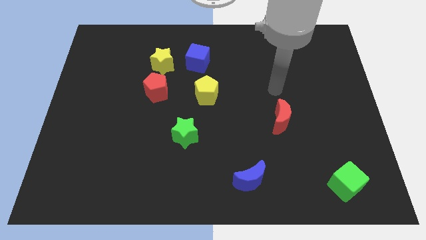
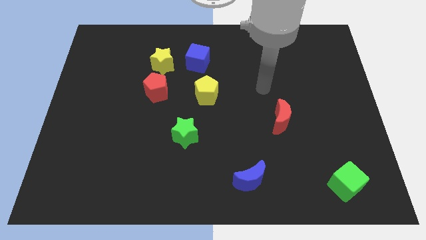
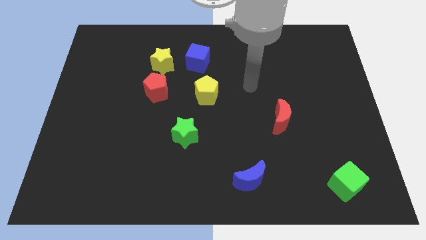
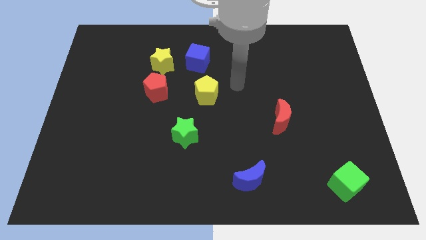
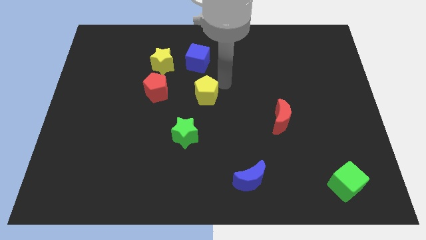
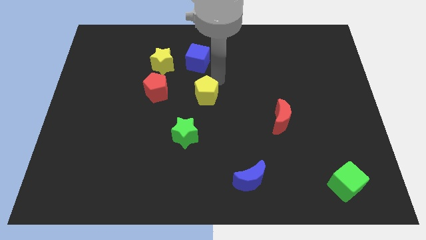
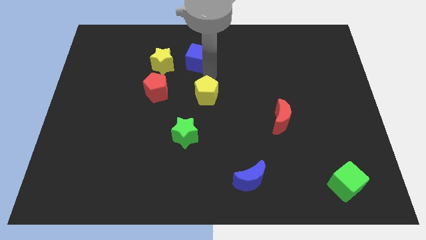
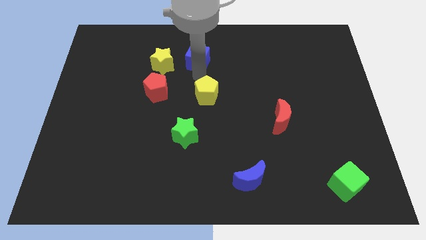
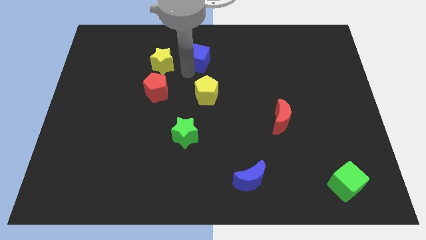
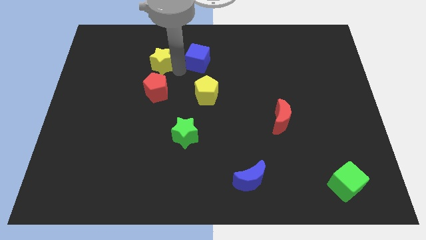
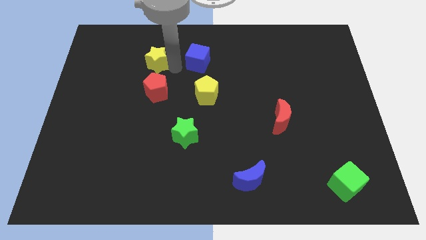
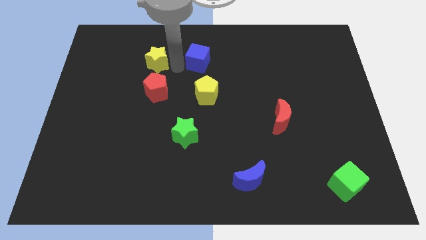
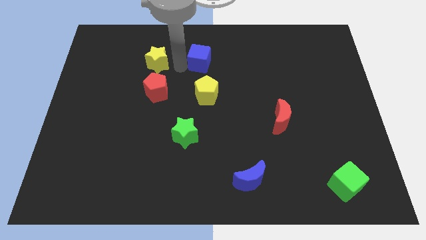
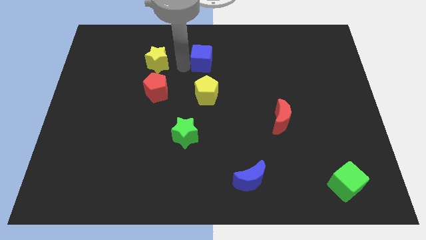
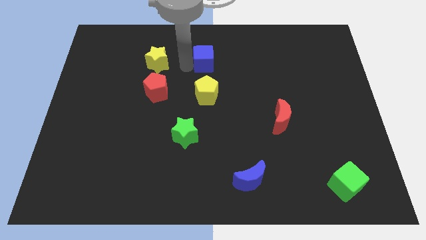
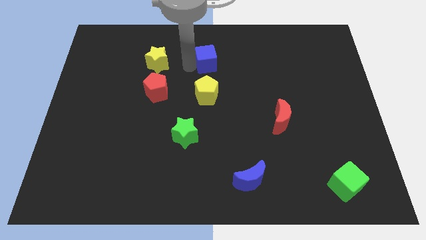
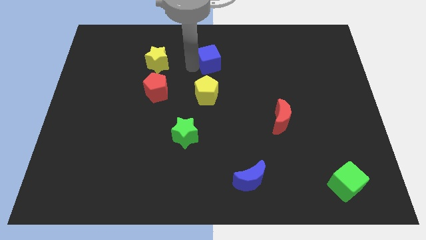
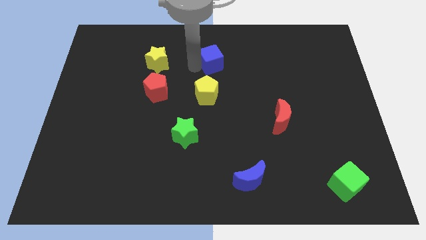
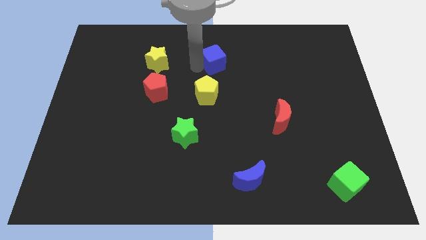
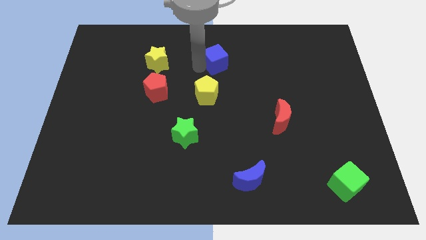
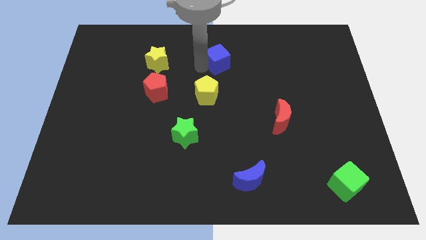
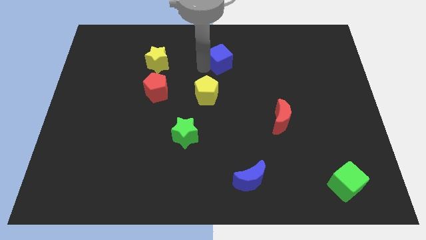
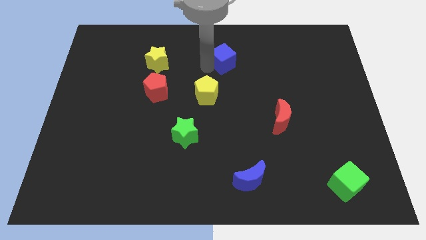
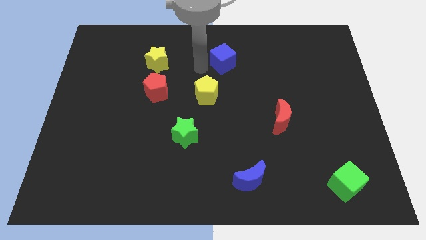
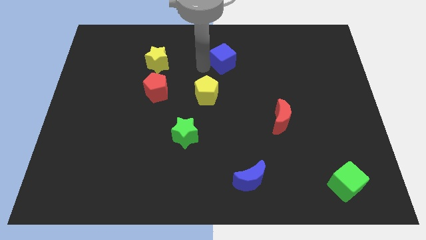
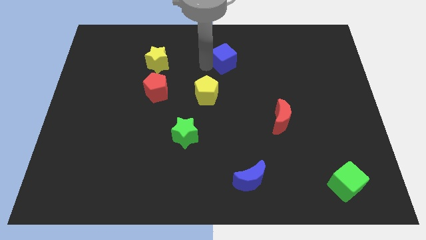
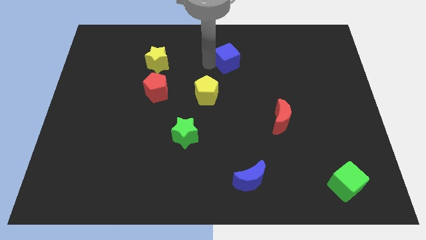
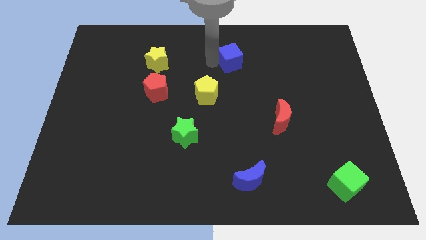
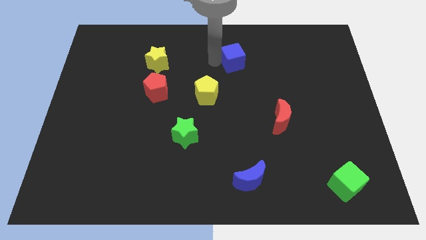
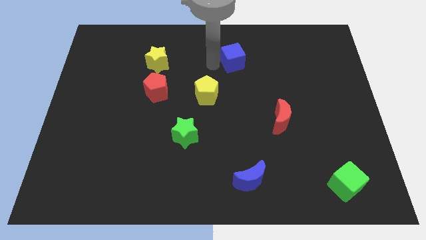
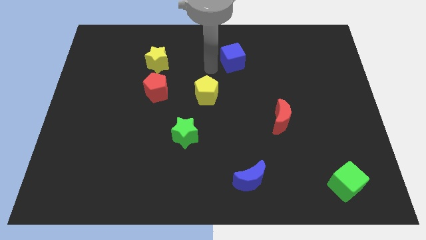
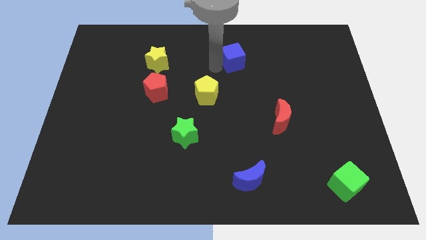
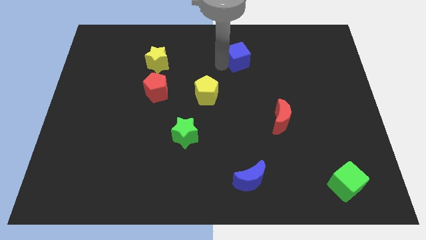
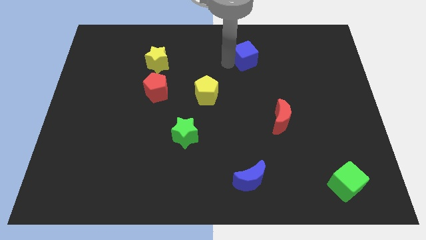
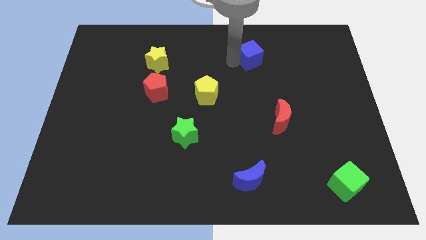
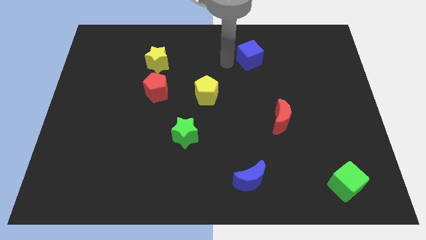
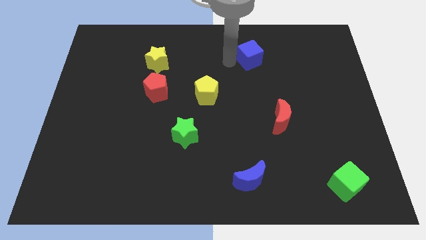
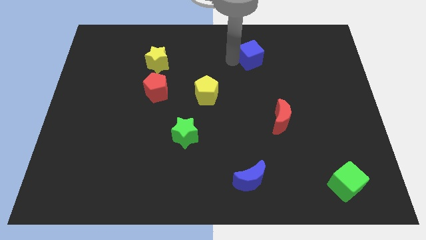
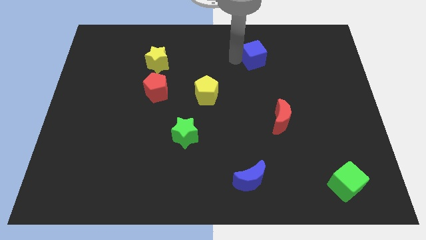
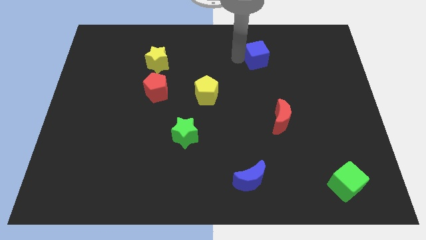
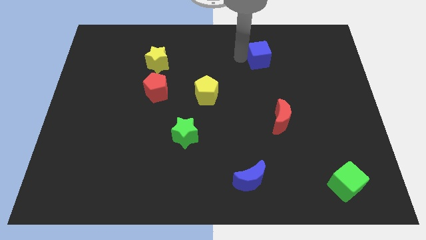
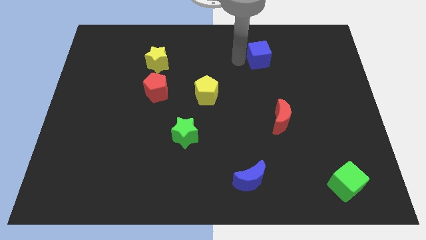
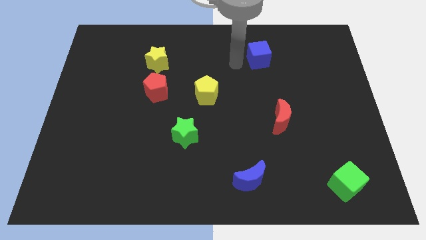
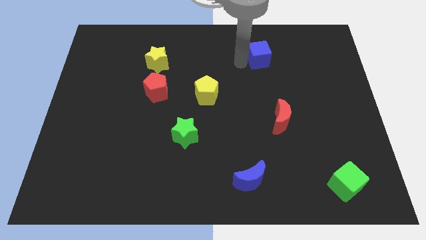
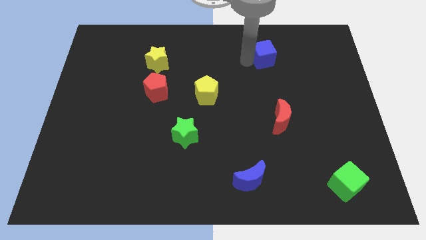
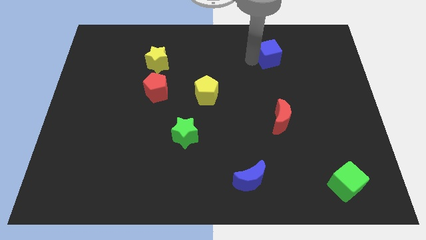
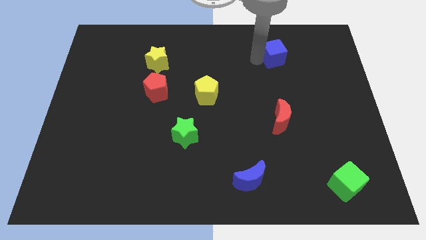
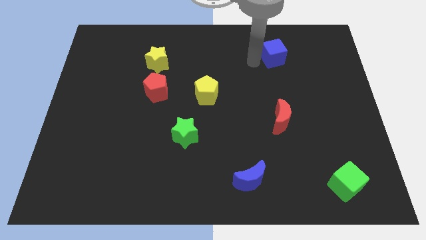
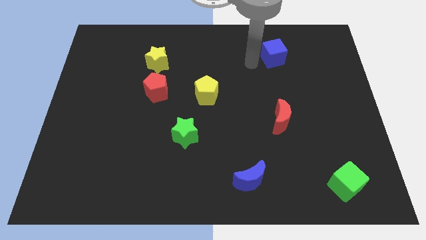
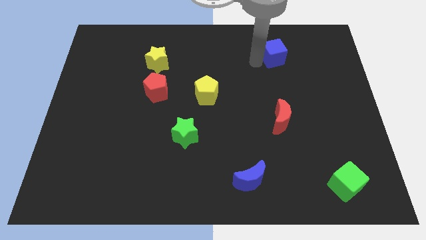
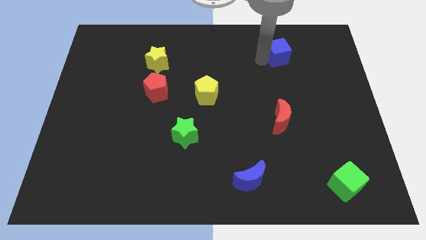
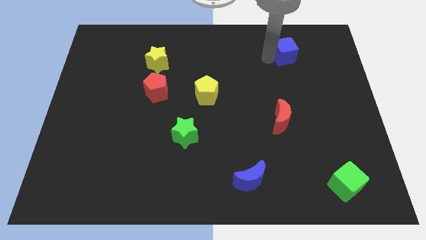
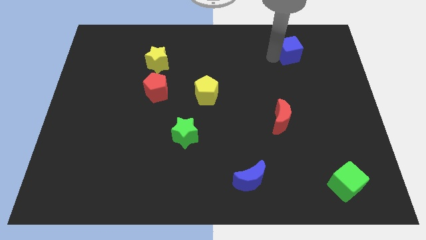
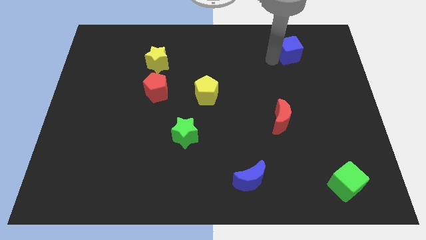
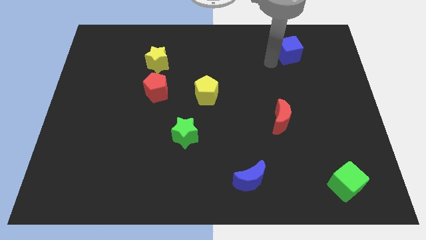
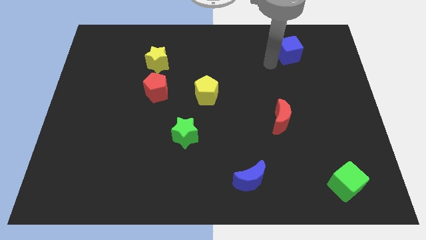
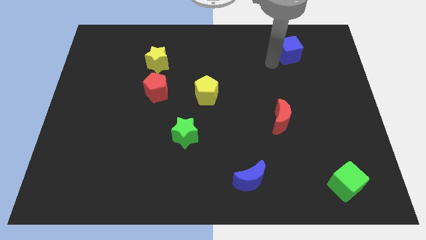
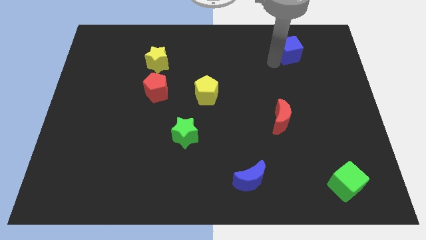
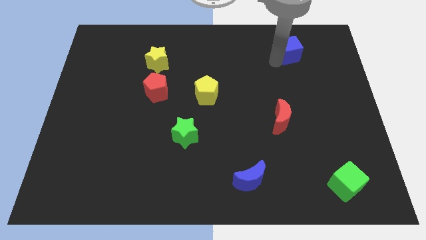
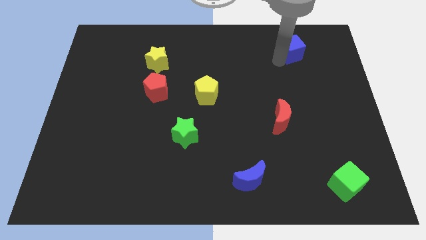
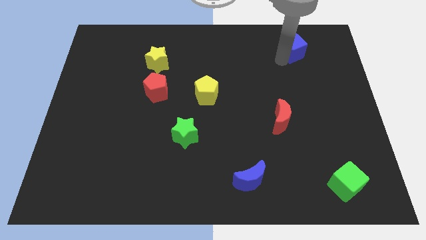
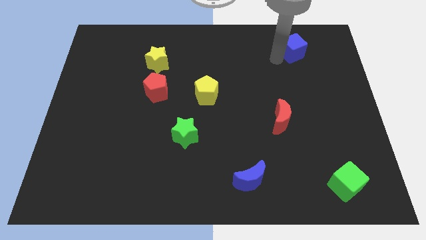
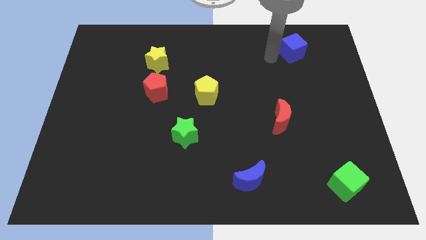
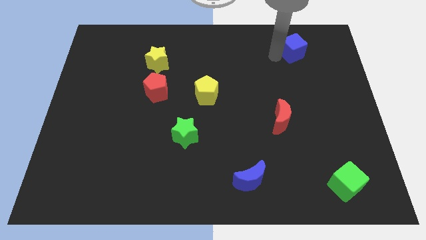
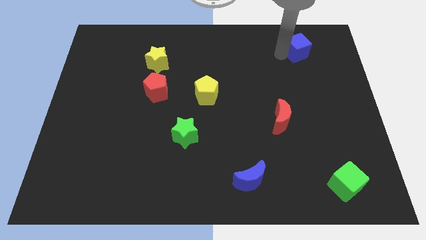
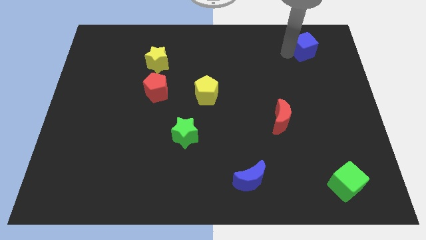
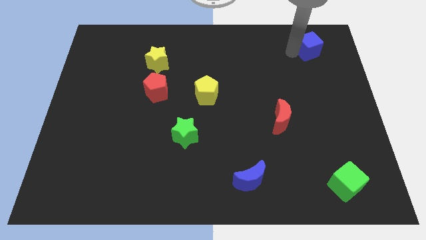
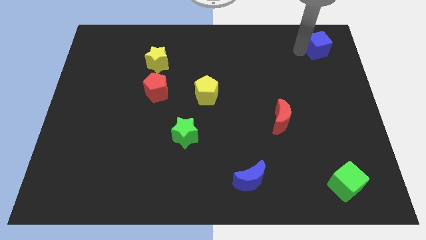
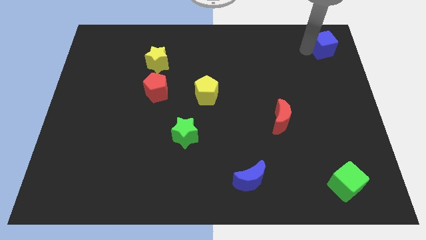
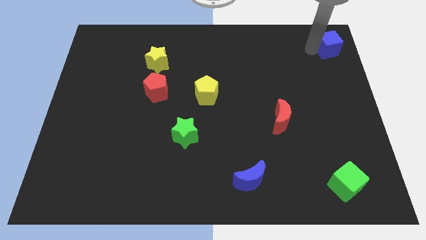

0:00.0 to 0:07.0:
move the blue cube to the top right
